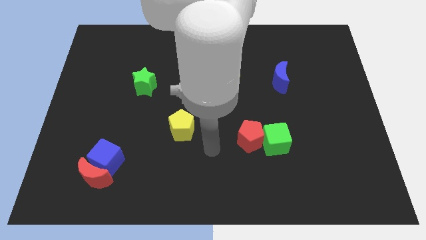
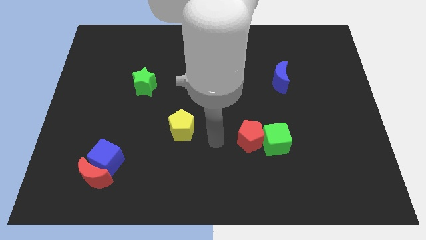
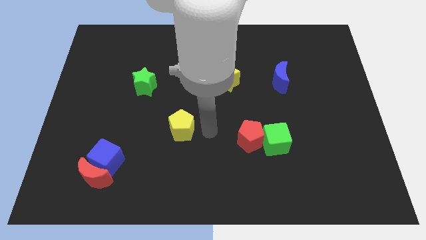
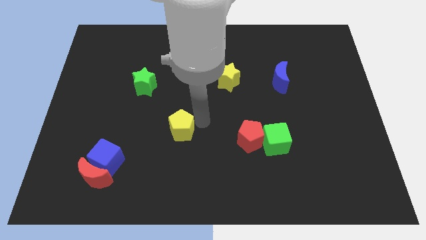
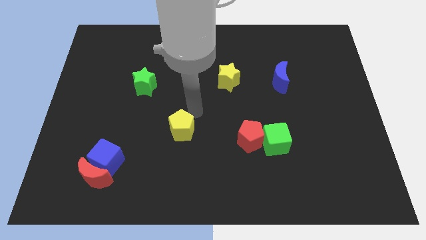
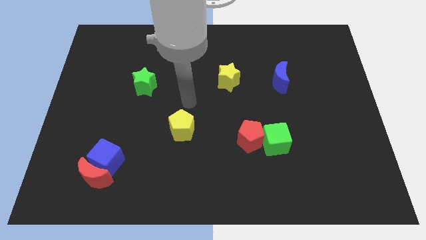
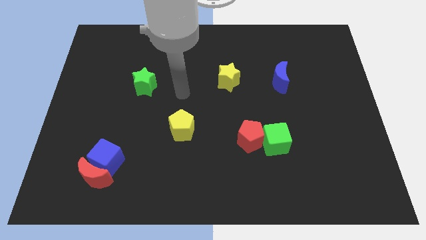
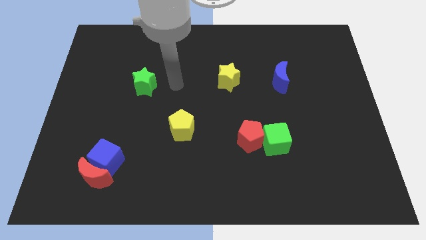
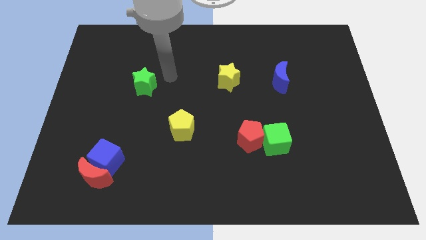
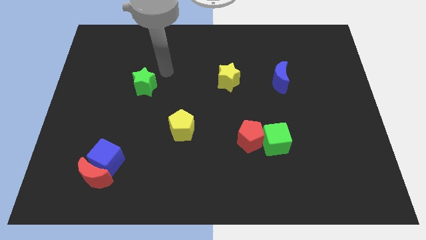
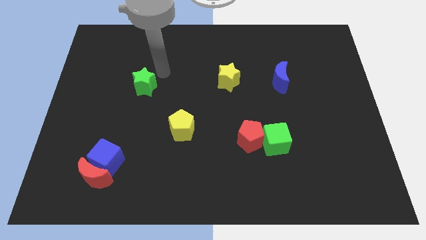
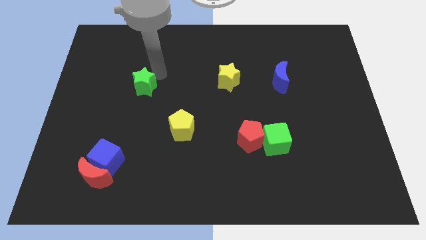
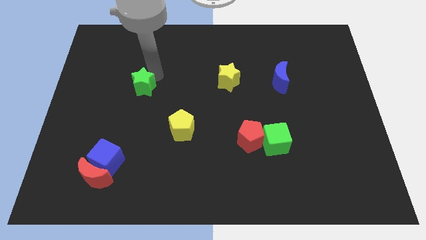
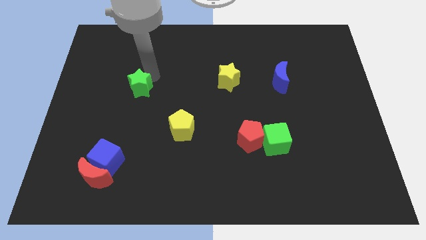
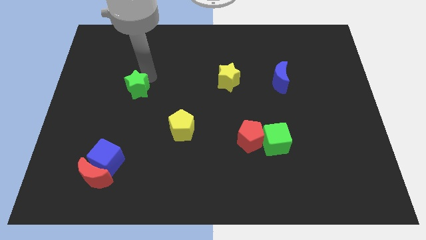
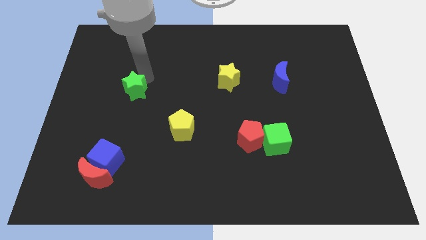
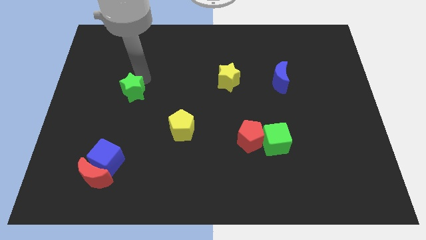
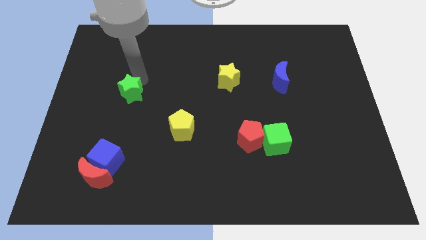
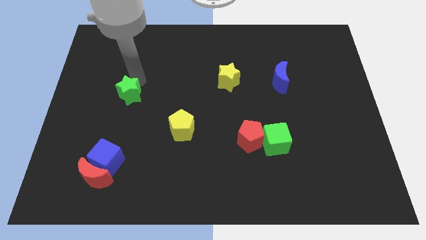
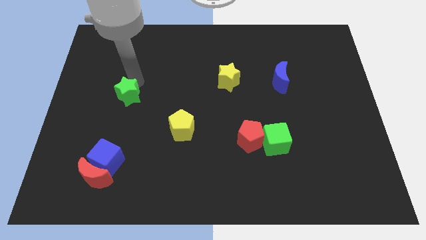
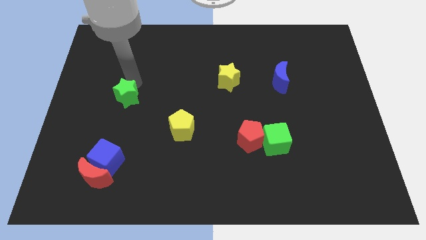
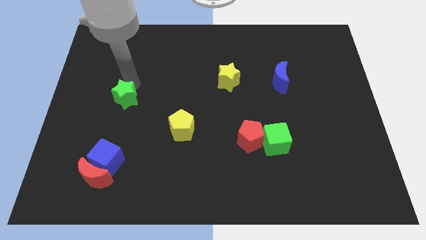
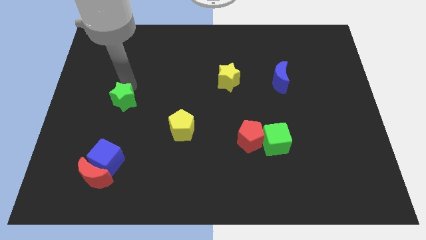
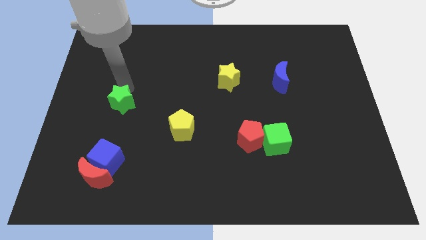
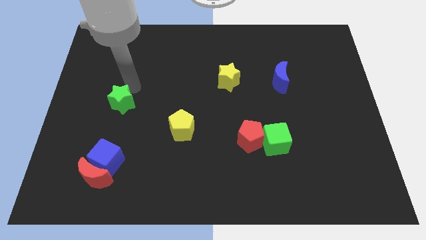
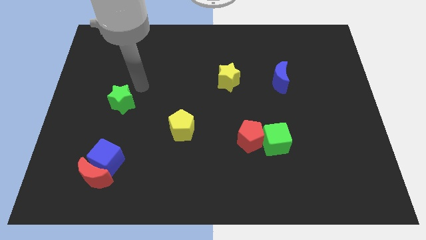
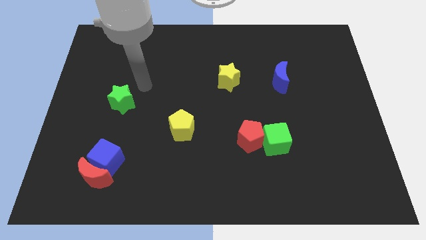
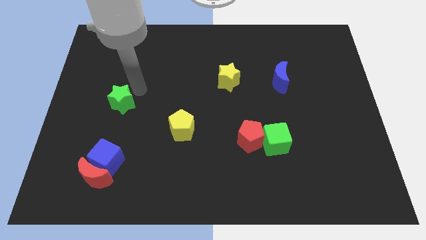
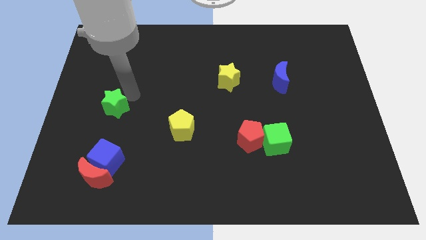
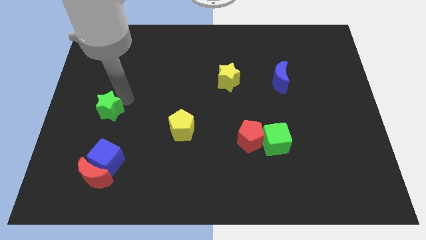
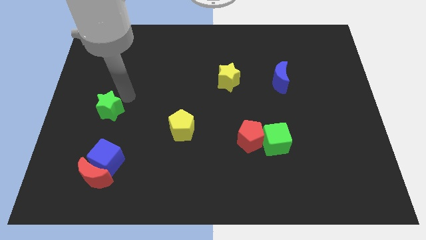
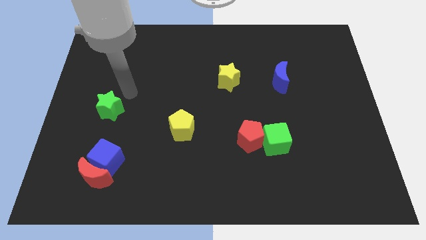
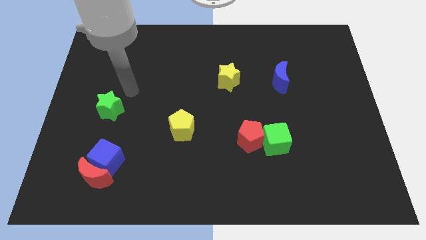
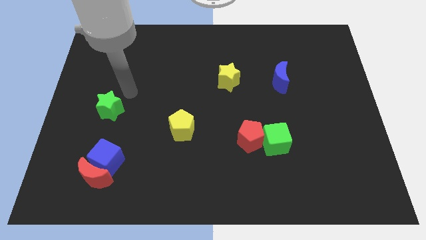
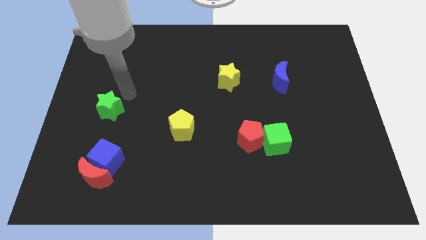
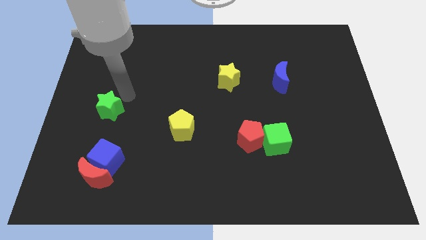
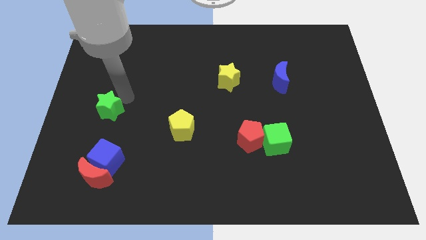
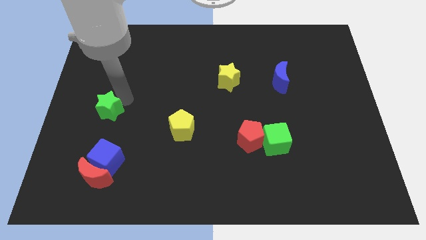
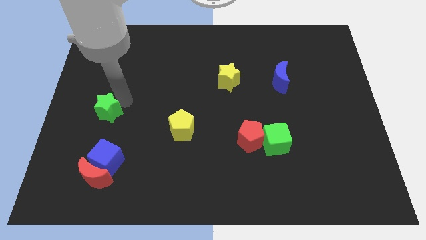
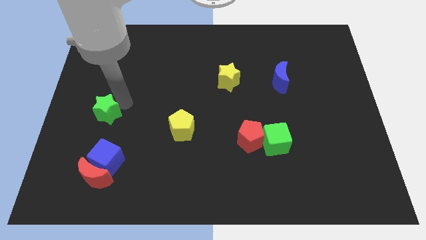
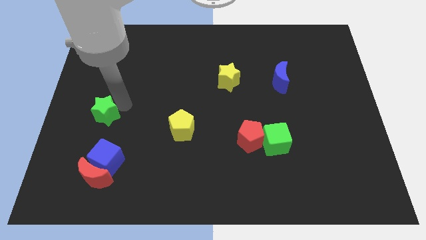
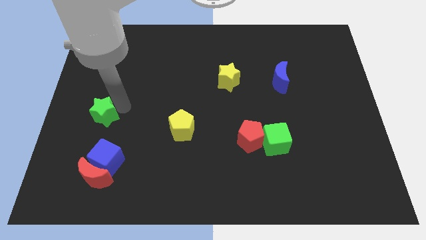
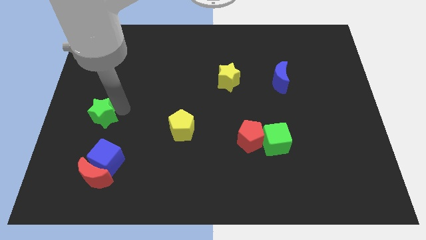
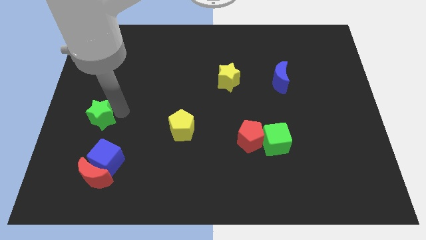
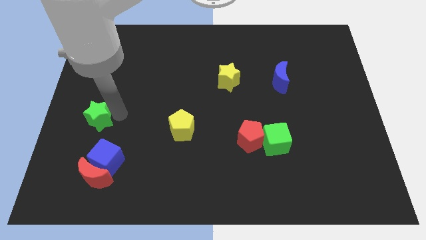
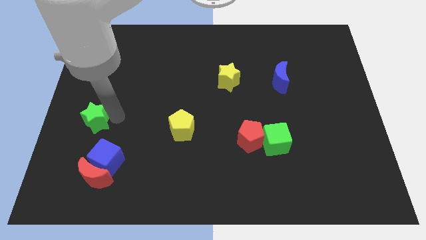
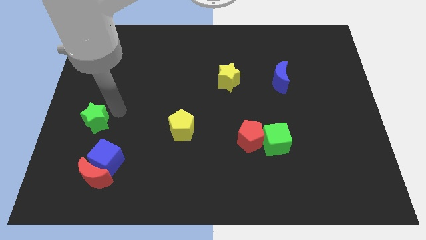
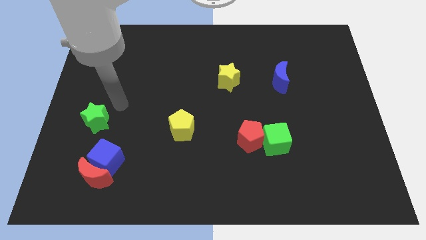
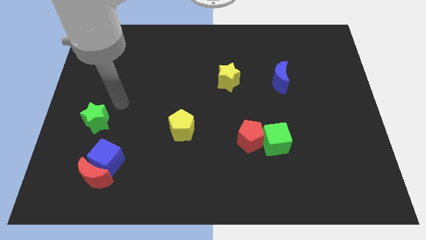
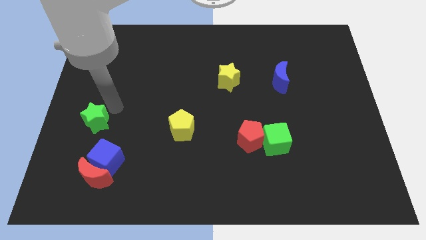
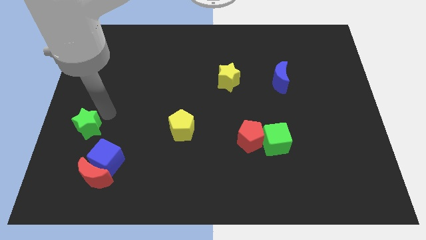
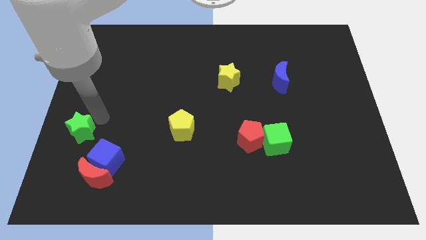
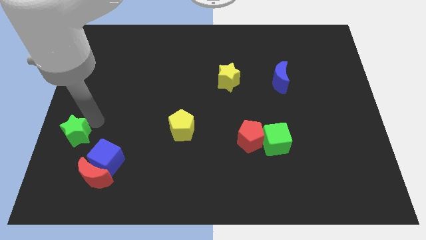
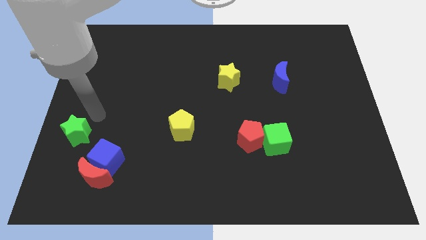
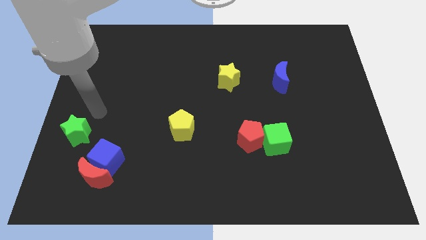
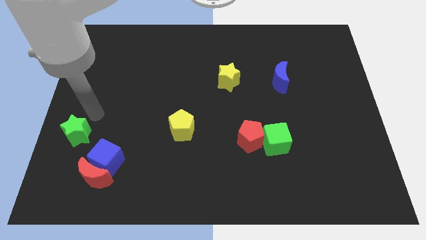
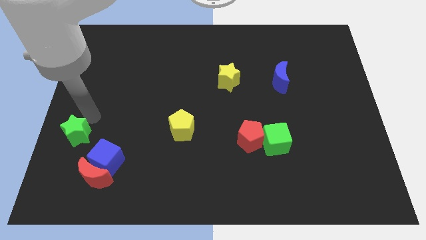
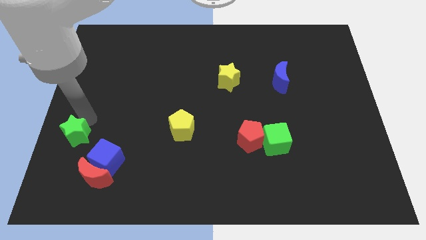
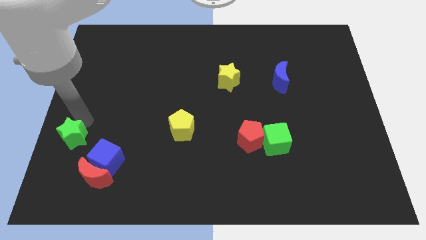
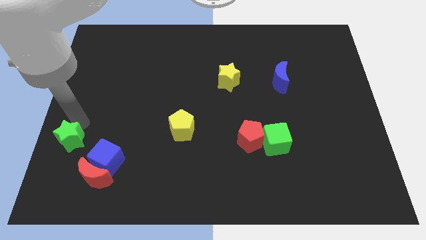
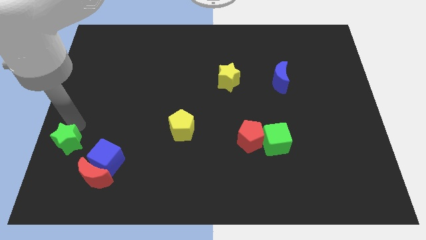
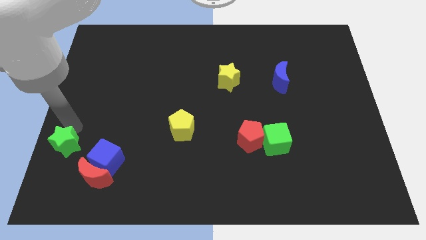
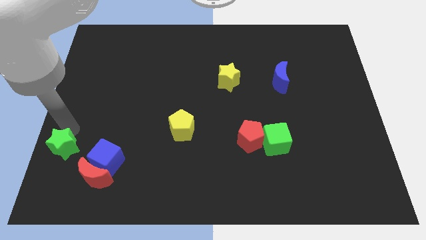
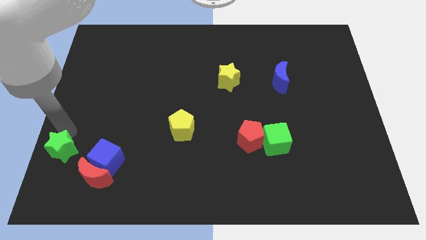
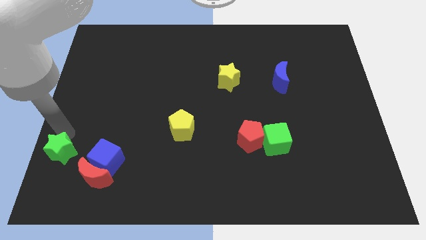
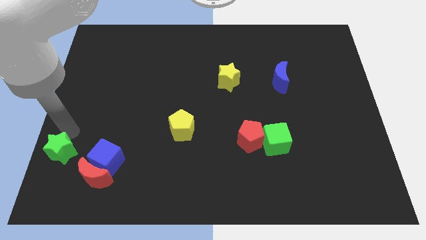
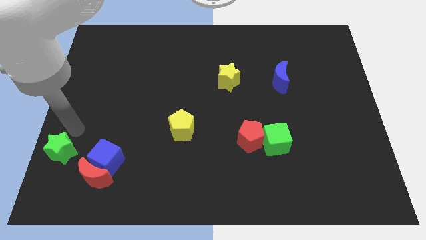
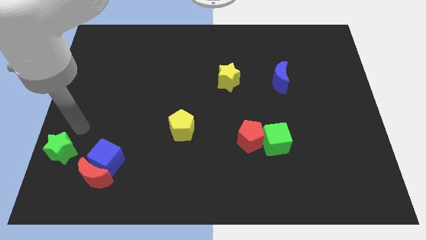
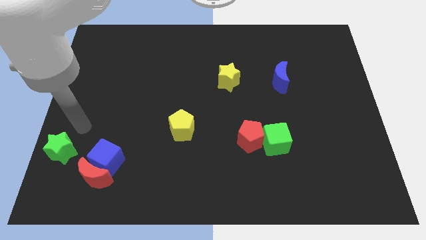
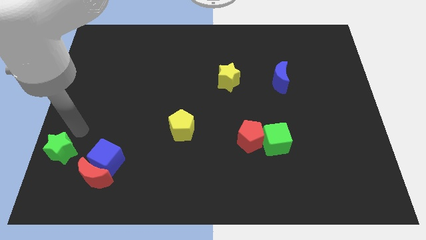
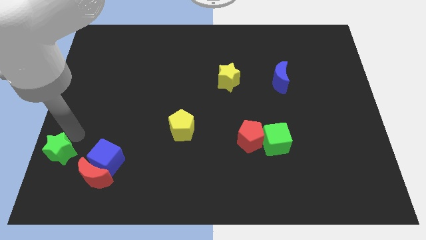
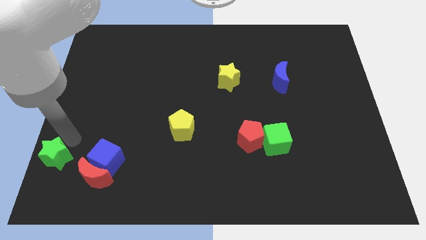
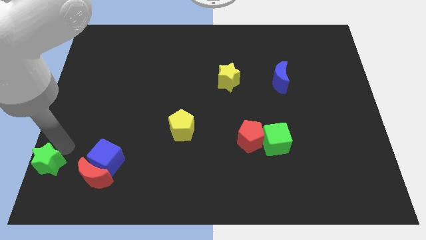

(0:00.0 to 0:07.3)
put the green star to the bottom left
